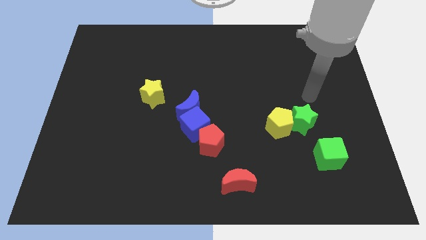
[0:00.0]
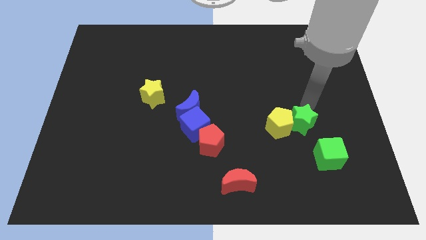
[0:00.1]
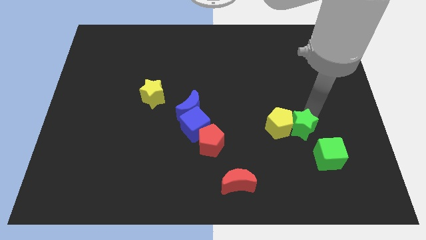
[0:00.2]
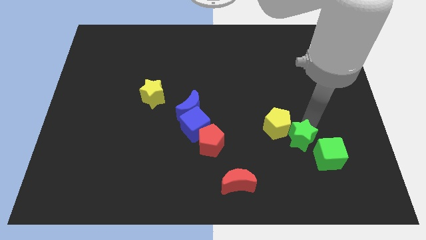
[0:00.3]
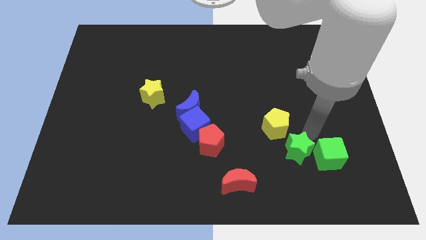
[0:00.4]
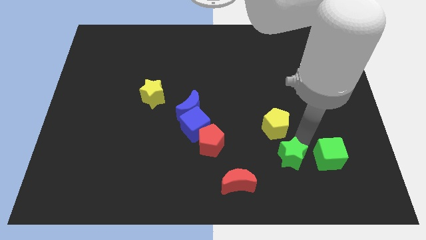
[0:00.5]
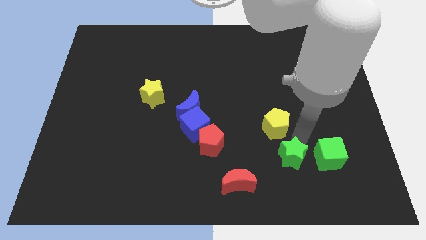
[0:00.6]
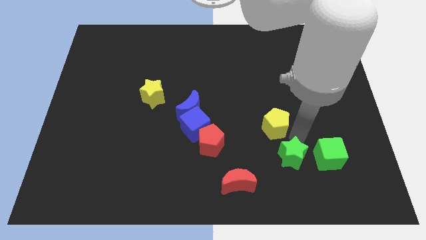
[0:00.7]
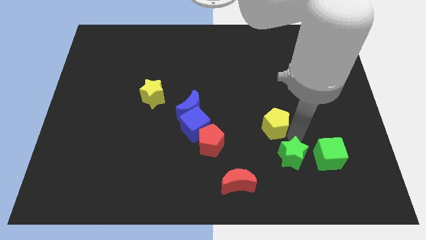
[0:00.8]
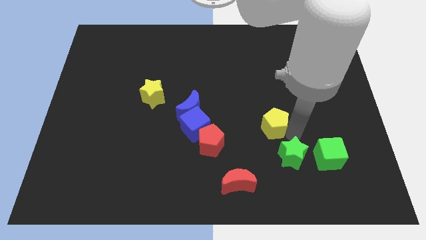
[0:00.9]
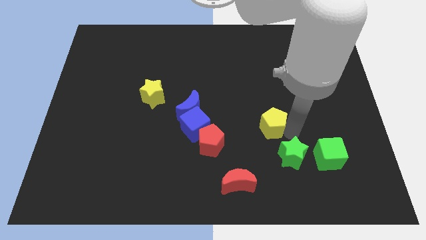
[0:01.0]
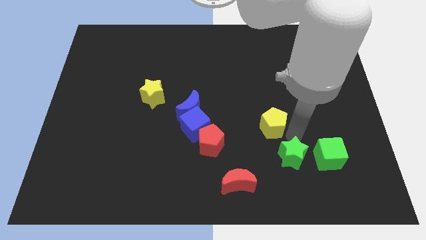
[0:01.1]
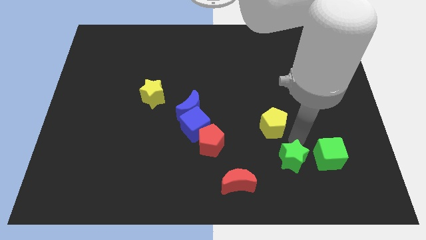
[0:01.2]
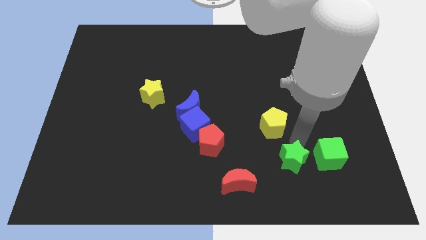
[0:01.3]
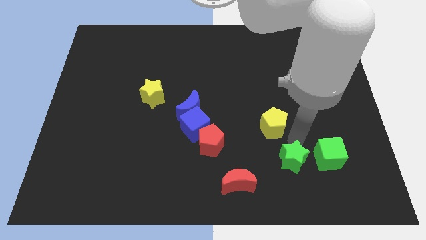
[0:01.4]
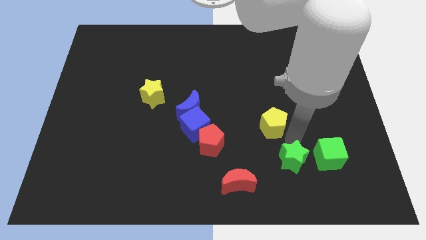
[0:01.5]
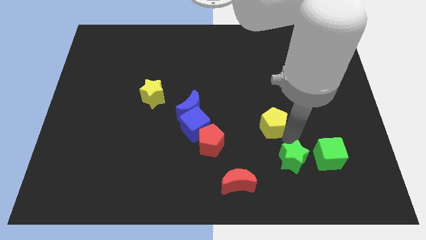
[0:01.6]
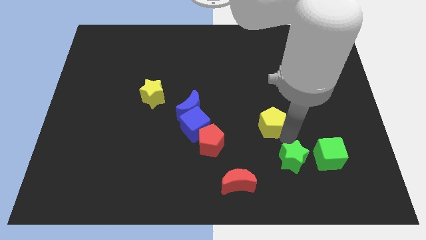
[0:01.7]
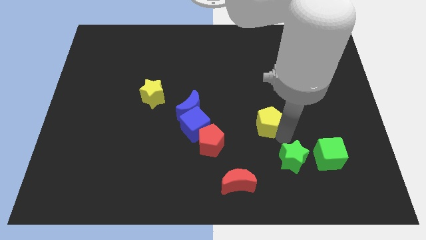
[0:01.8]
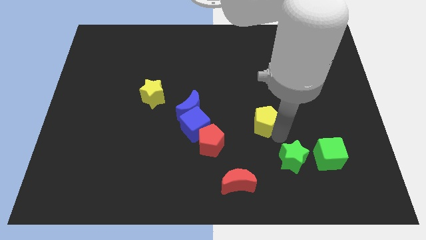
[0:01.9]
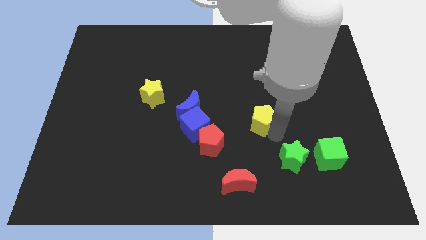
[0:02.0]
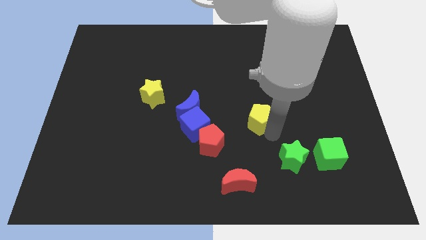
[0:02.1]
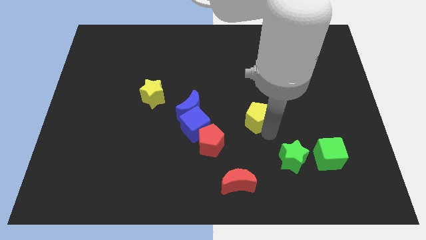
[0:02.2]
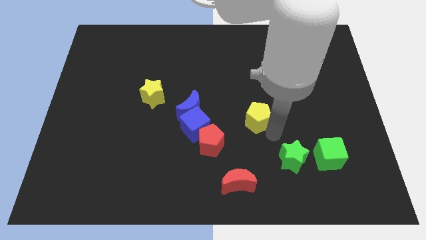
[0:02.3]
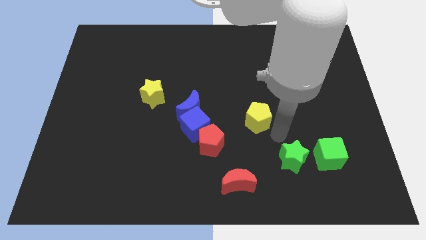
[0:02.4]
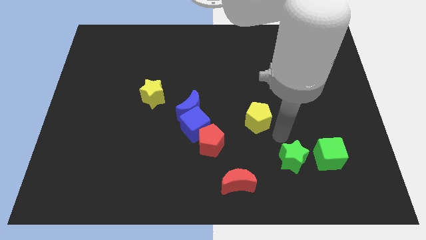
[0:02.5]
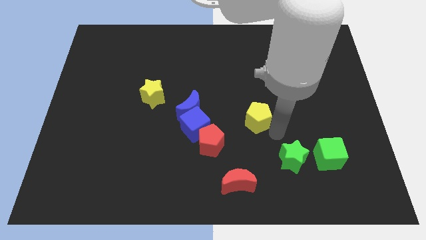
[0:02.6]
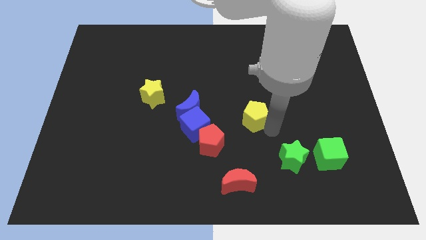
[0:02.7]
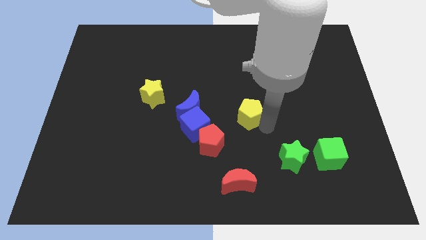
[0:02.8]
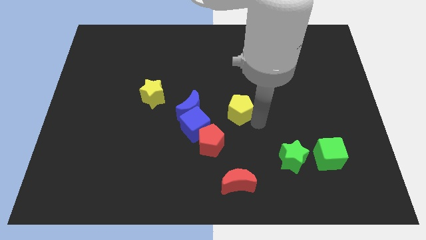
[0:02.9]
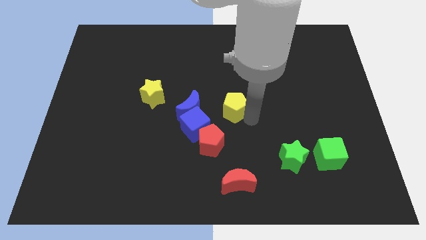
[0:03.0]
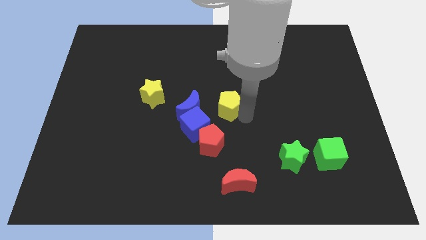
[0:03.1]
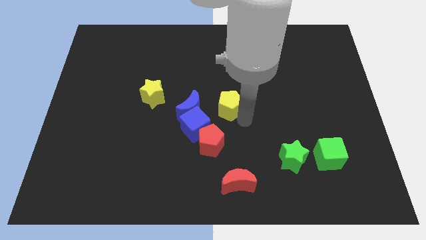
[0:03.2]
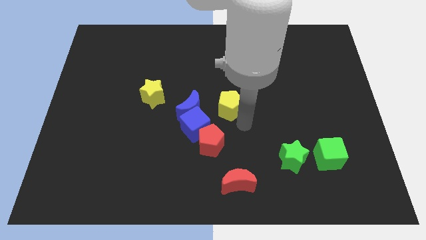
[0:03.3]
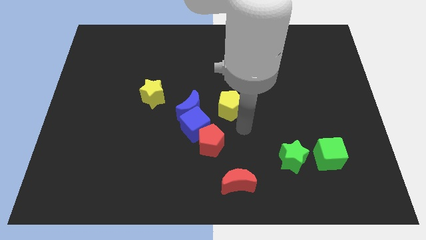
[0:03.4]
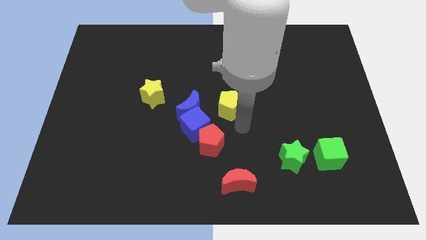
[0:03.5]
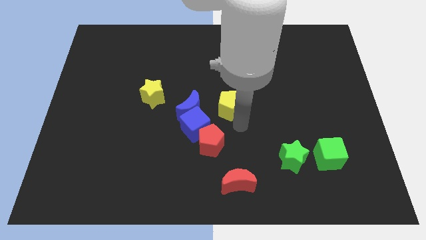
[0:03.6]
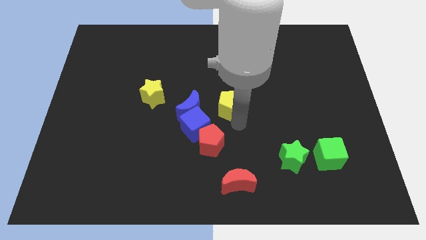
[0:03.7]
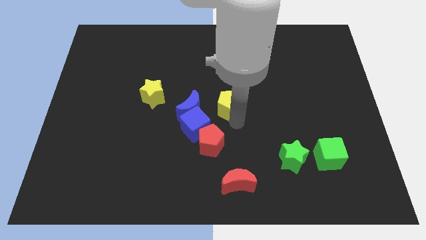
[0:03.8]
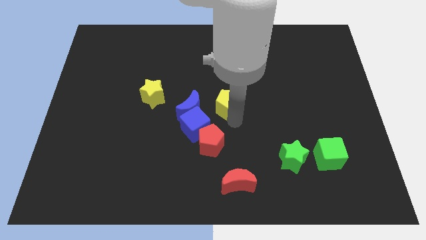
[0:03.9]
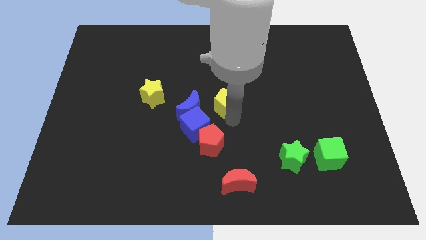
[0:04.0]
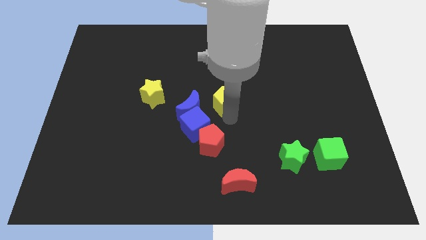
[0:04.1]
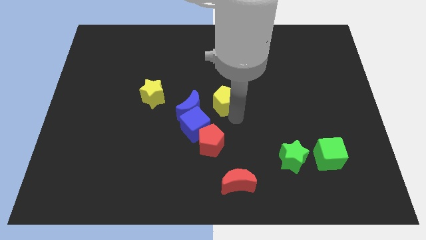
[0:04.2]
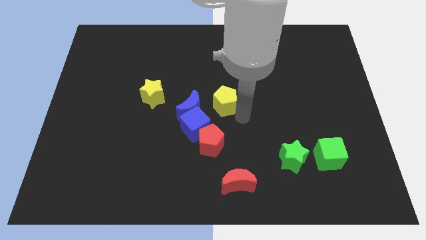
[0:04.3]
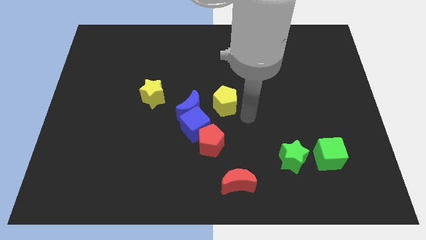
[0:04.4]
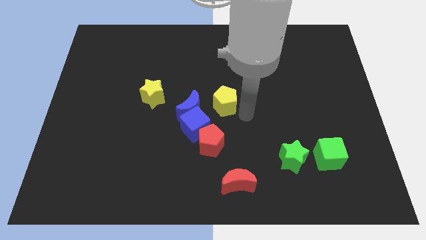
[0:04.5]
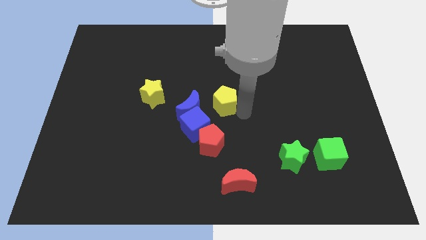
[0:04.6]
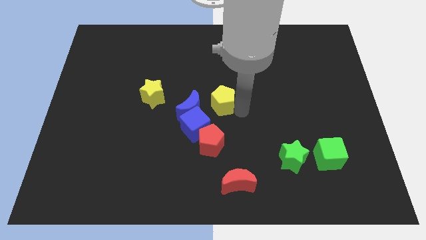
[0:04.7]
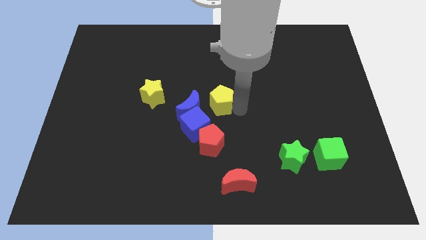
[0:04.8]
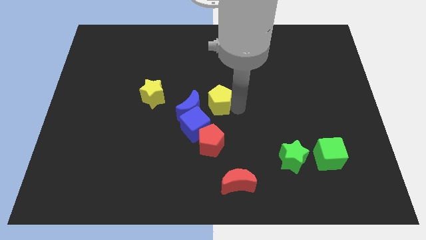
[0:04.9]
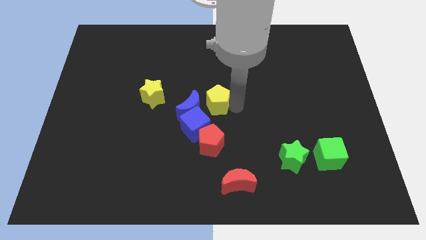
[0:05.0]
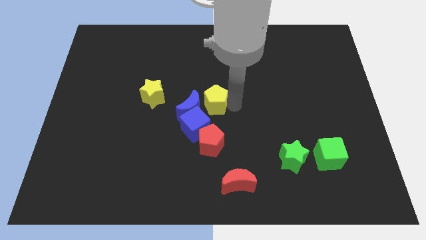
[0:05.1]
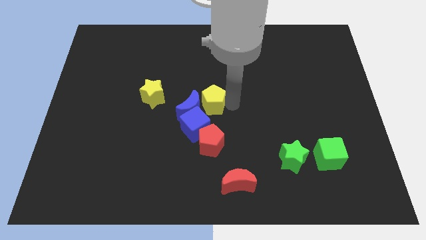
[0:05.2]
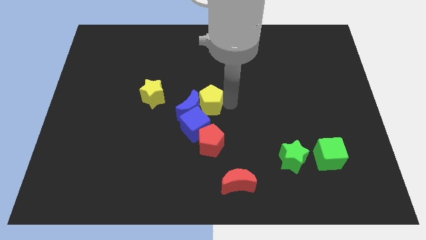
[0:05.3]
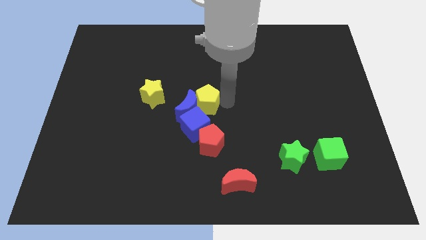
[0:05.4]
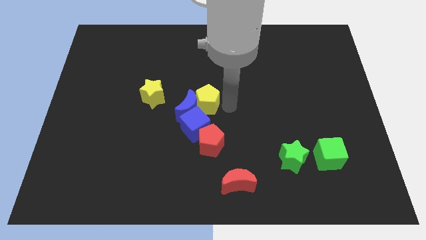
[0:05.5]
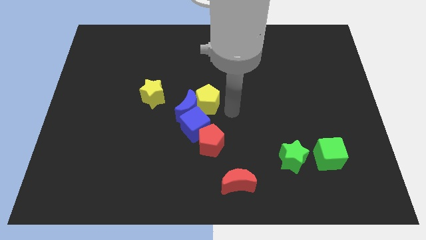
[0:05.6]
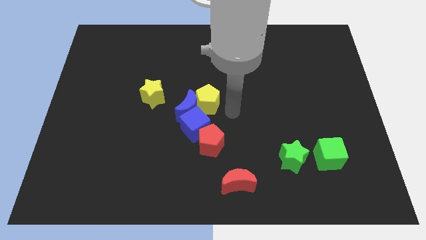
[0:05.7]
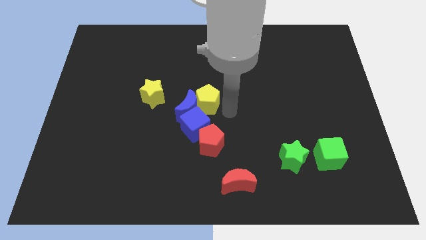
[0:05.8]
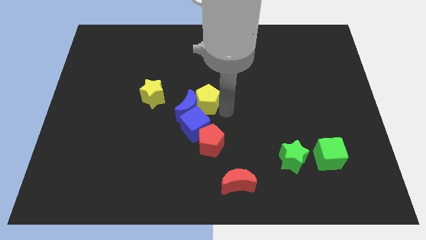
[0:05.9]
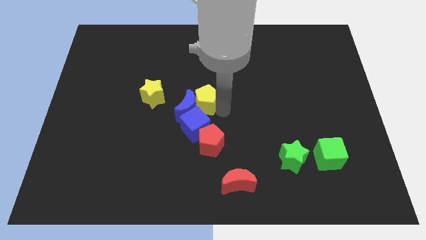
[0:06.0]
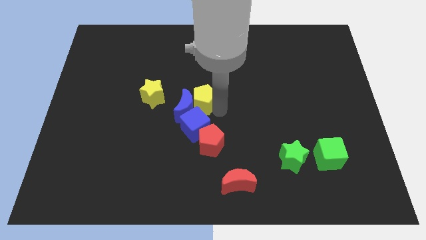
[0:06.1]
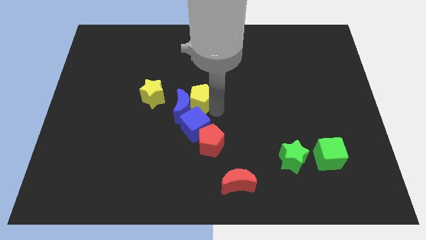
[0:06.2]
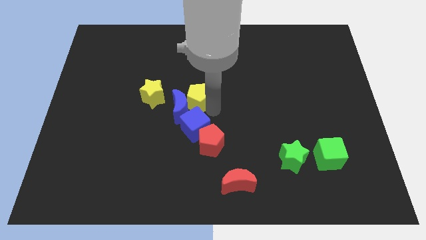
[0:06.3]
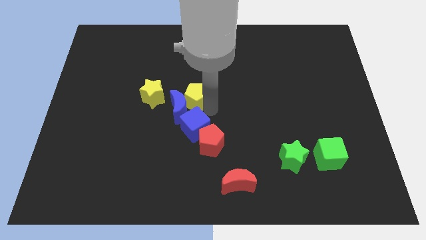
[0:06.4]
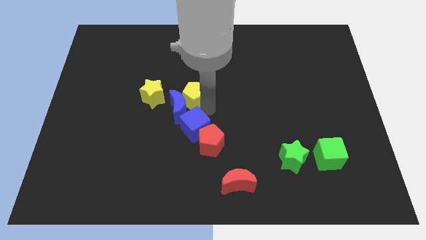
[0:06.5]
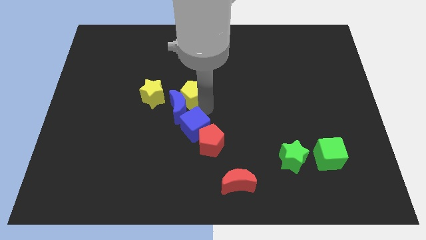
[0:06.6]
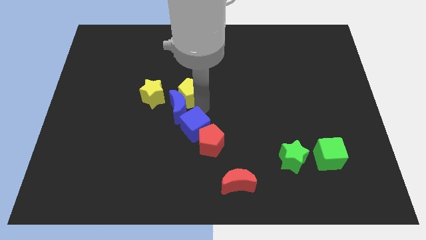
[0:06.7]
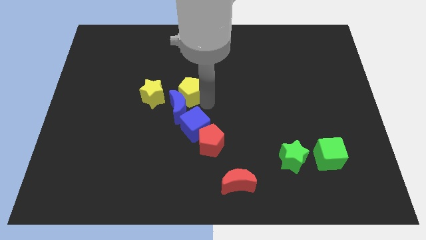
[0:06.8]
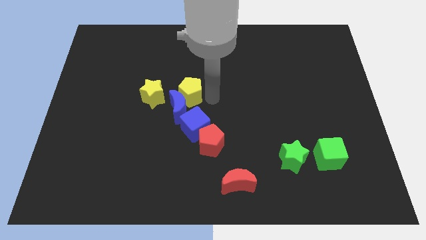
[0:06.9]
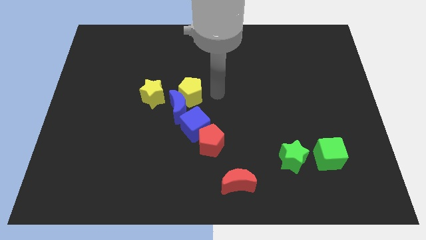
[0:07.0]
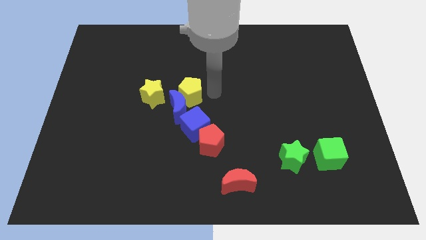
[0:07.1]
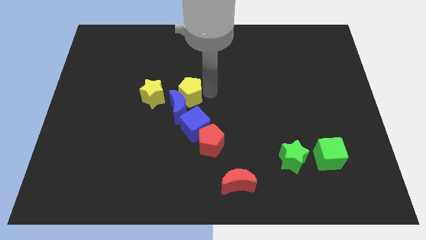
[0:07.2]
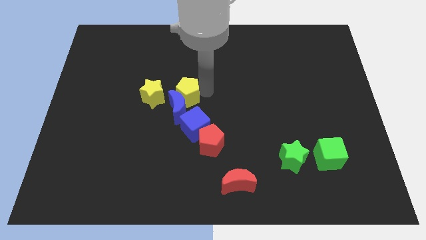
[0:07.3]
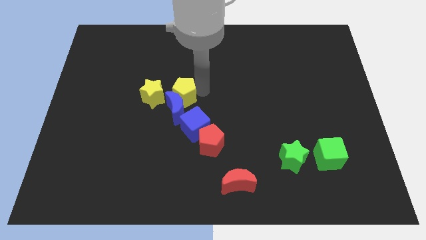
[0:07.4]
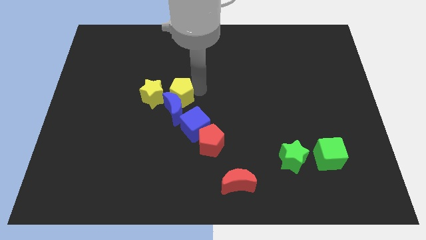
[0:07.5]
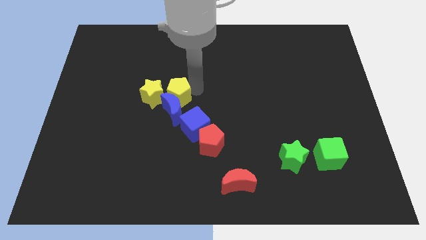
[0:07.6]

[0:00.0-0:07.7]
move the yellow pentagon close to the yellow star

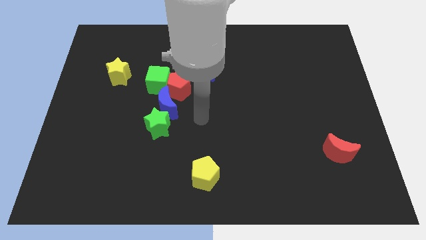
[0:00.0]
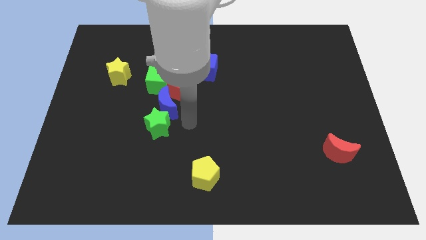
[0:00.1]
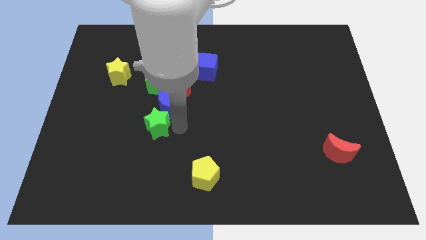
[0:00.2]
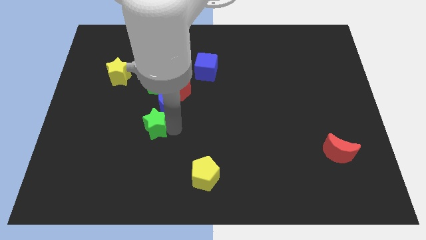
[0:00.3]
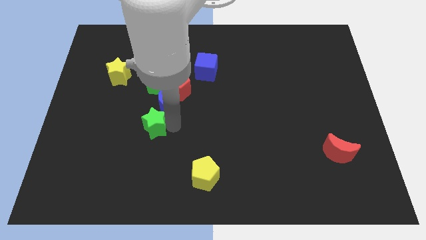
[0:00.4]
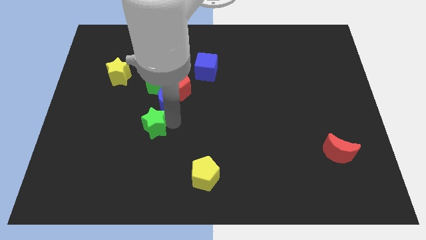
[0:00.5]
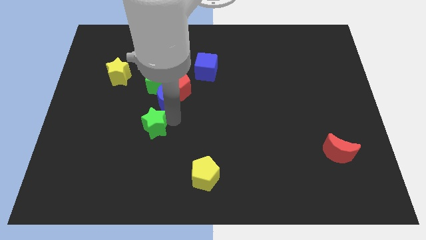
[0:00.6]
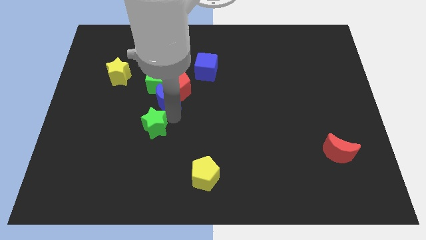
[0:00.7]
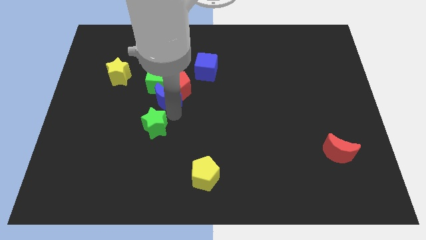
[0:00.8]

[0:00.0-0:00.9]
slide the blue moon next to the green cube
